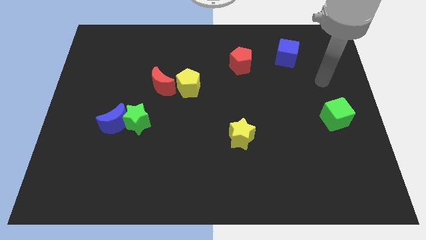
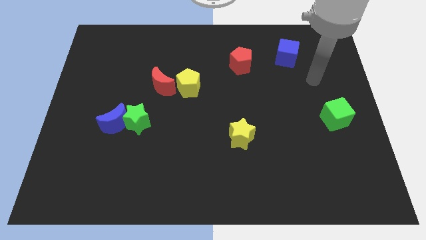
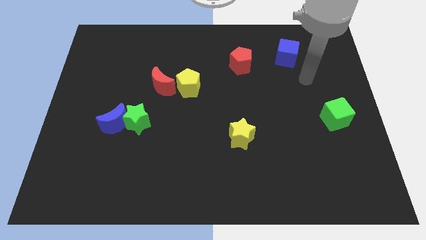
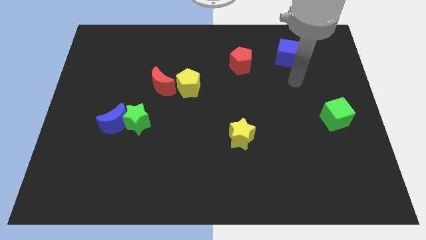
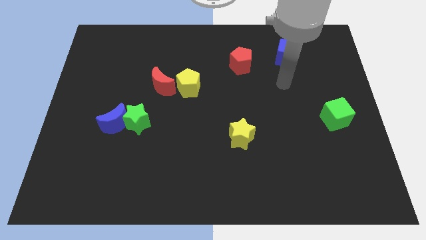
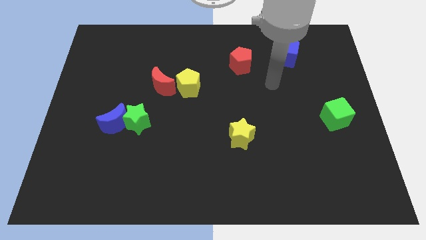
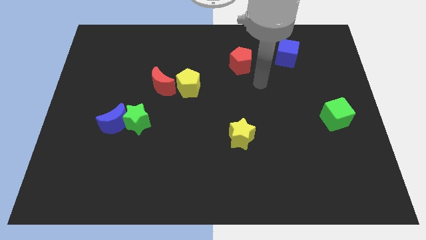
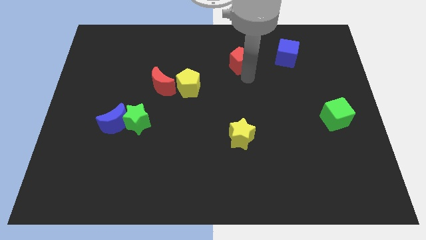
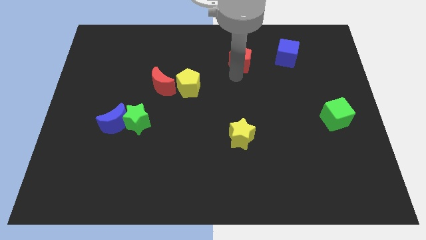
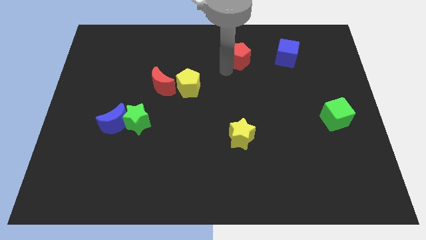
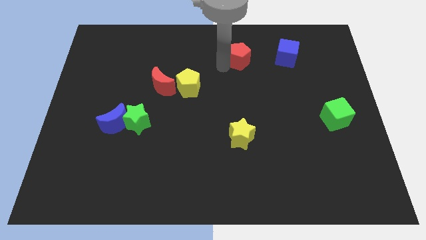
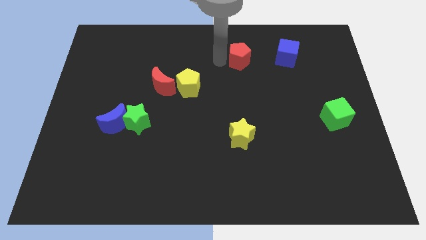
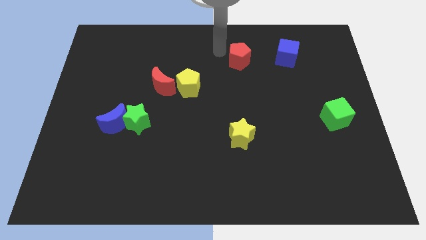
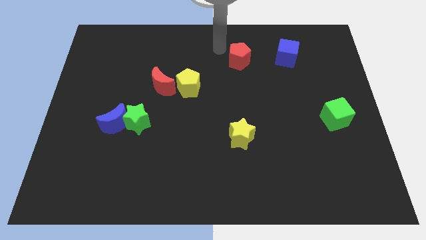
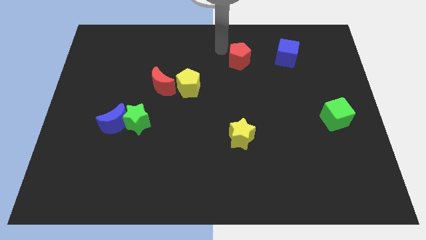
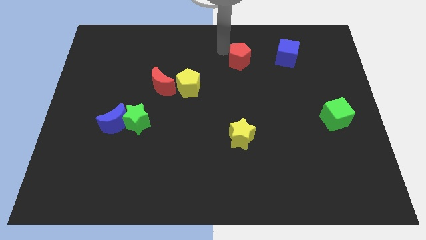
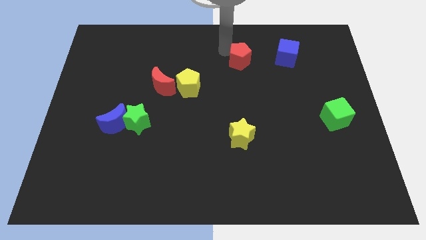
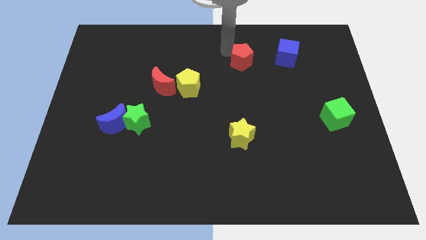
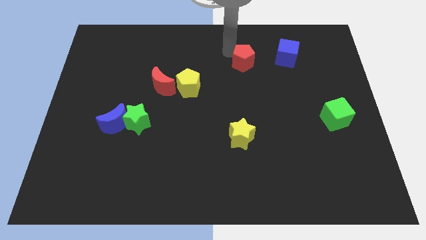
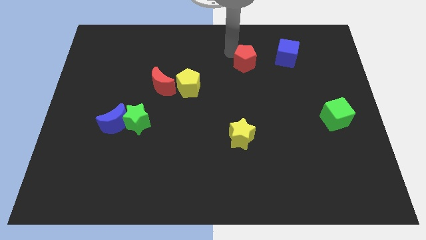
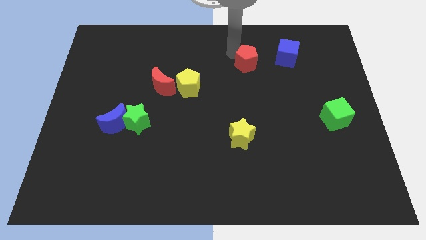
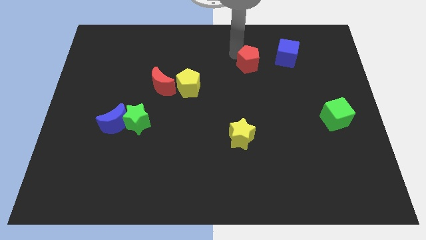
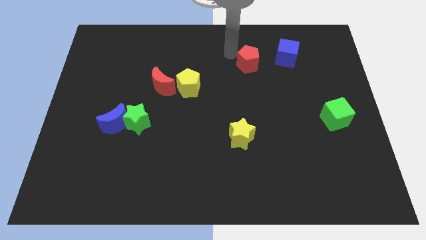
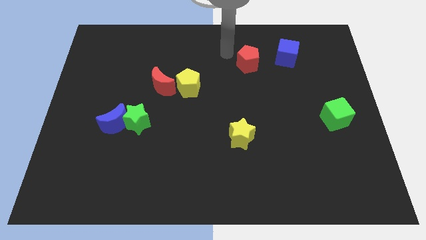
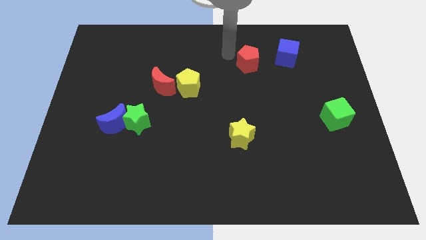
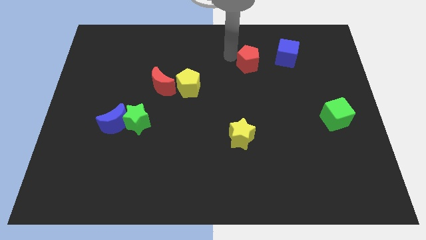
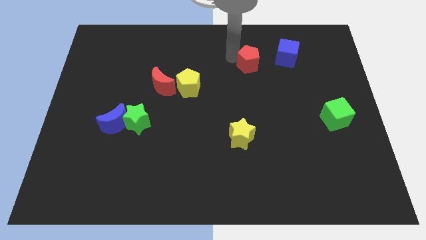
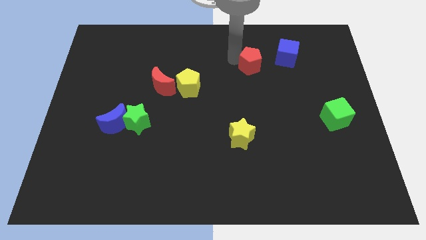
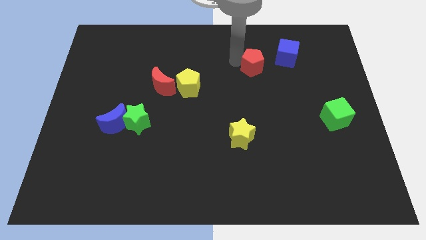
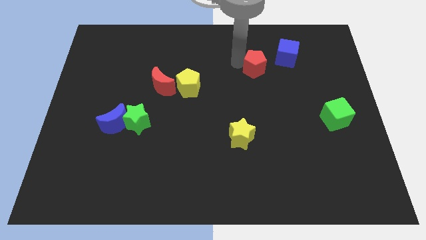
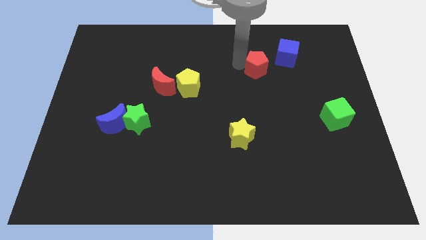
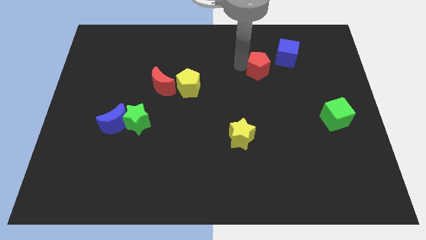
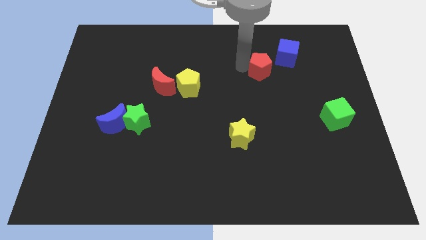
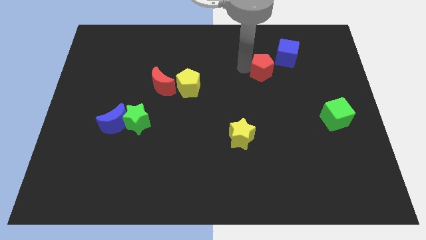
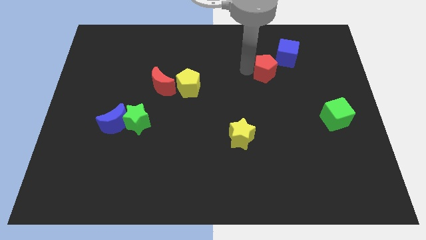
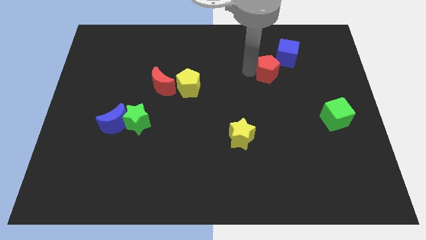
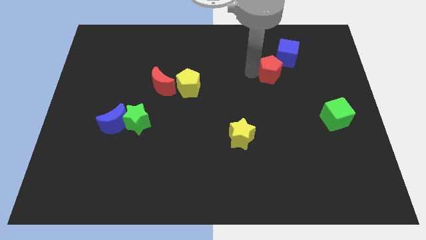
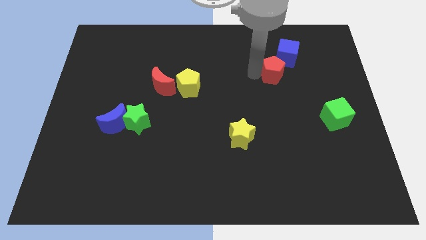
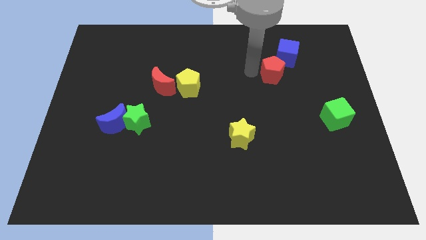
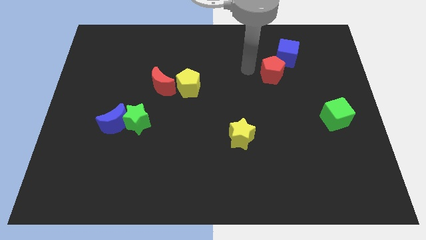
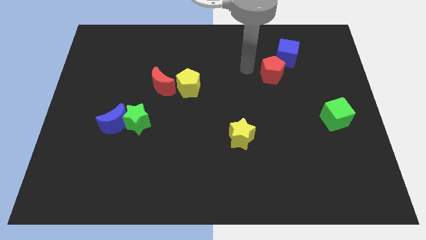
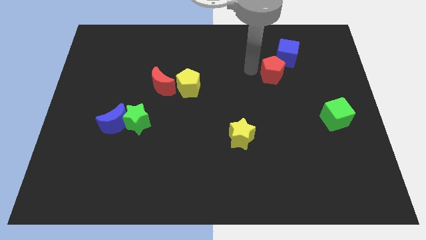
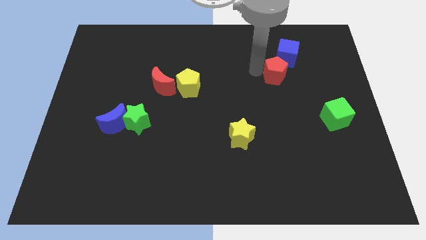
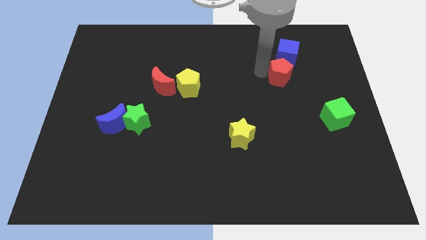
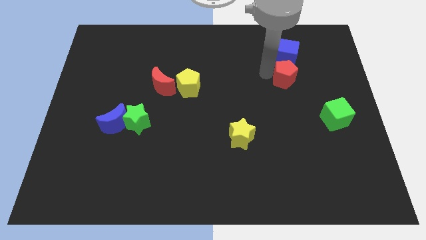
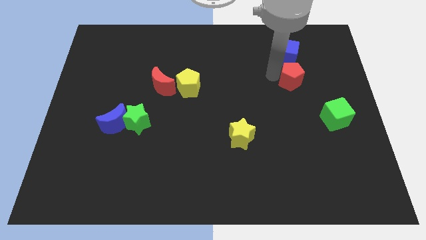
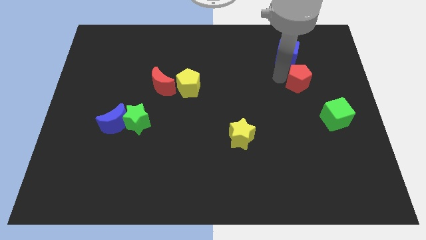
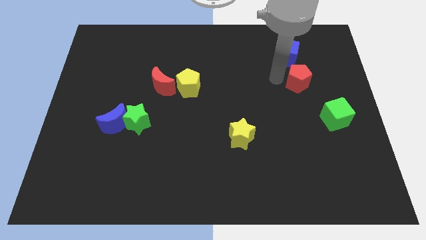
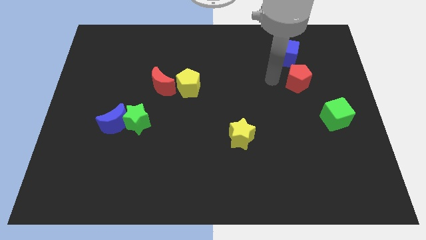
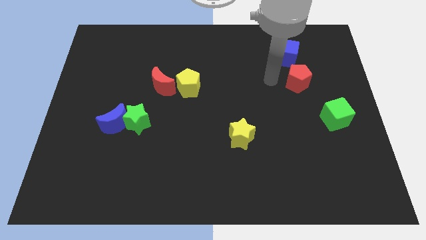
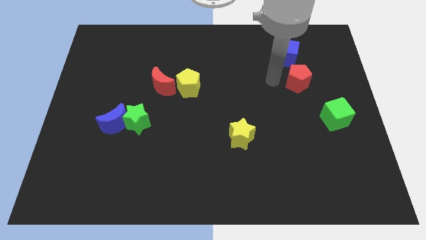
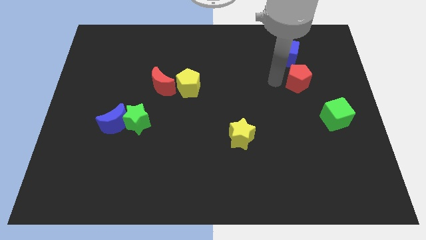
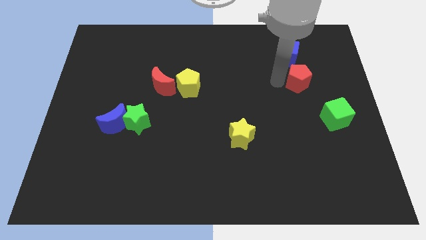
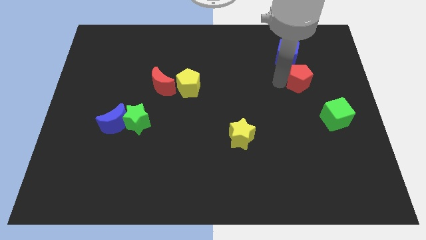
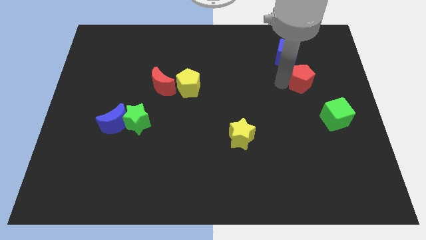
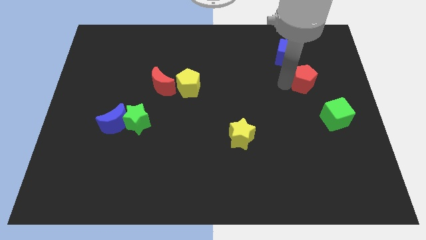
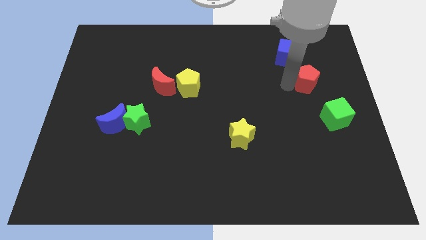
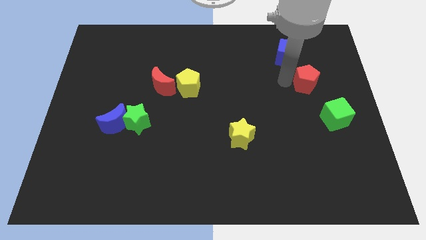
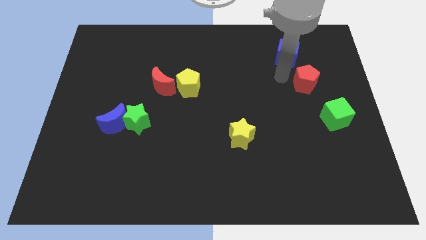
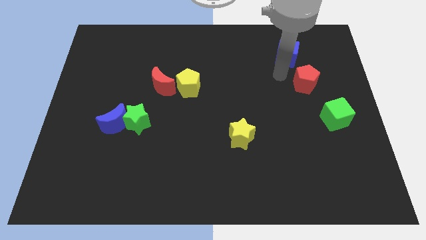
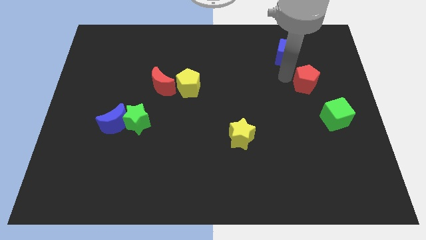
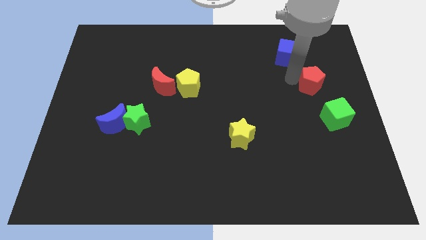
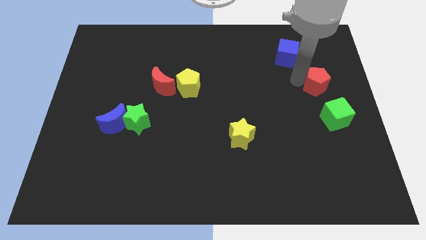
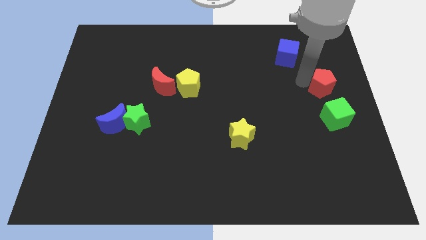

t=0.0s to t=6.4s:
put the red pentagon to the center right
